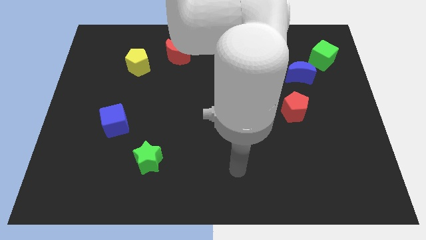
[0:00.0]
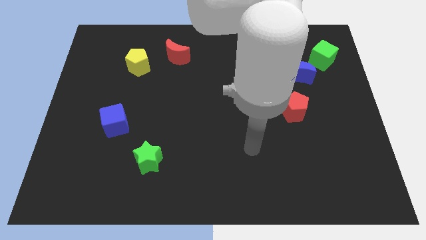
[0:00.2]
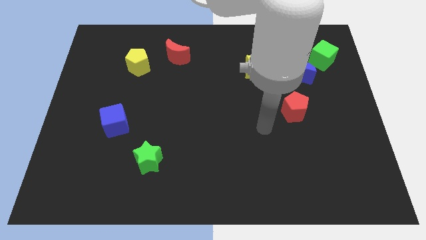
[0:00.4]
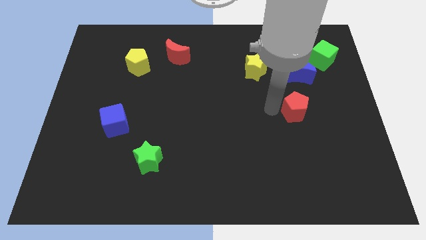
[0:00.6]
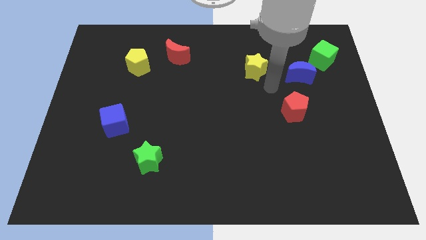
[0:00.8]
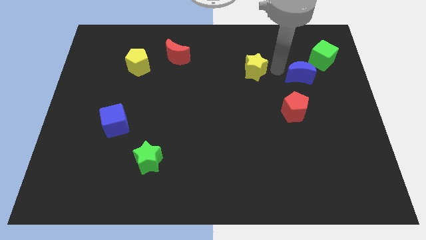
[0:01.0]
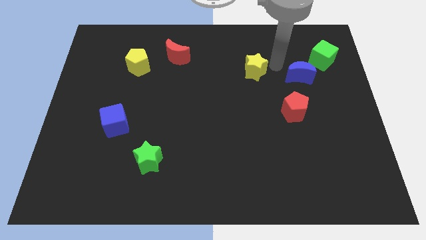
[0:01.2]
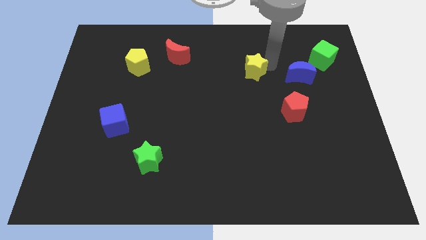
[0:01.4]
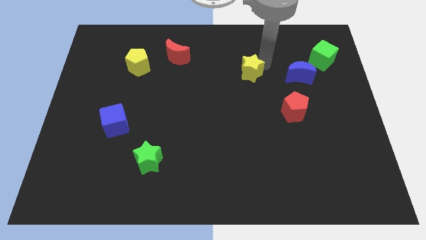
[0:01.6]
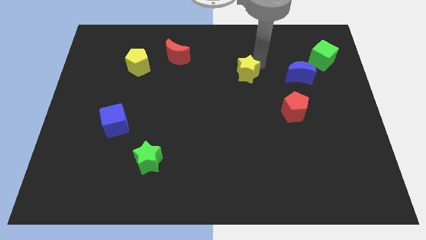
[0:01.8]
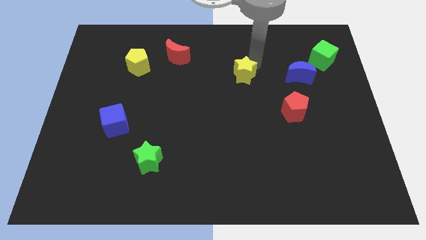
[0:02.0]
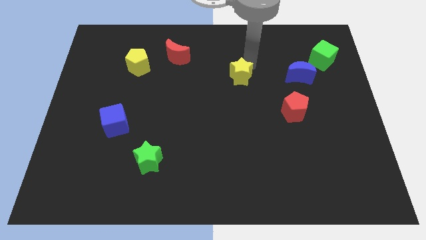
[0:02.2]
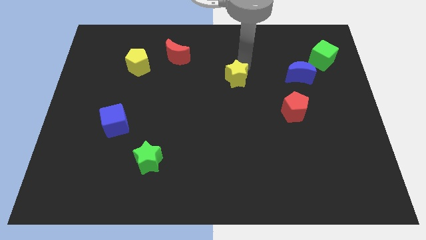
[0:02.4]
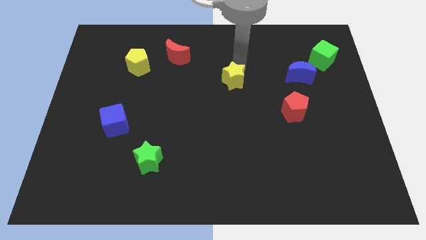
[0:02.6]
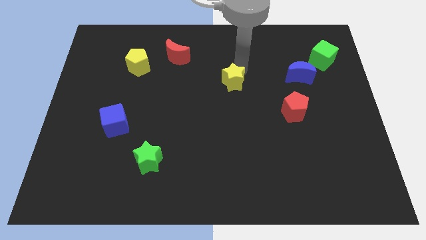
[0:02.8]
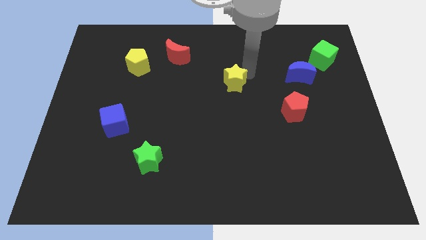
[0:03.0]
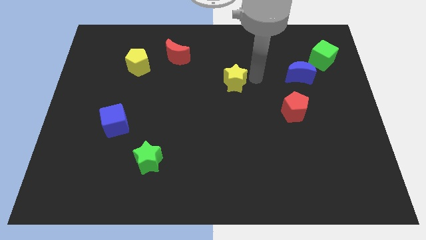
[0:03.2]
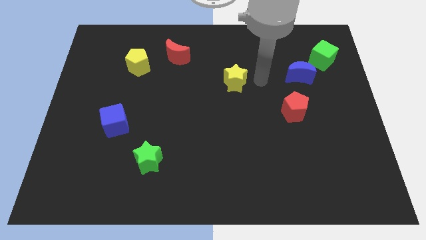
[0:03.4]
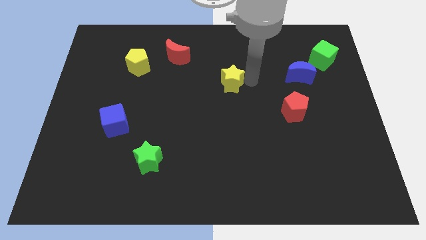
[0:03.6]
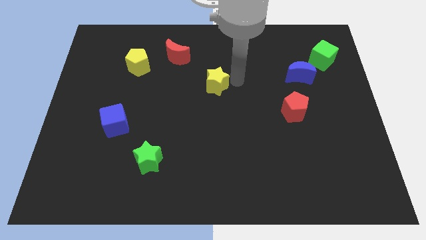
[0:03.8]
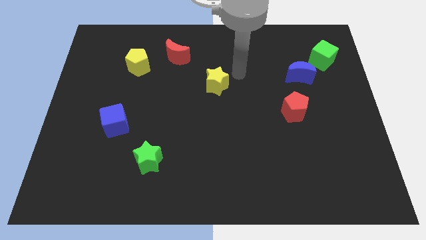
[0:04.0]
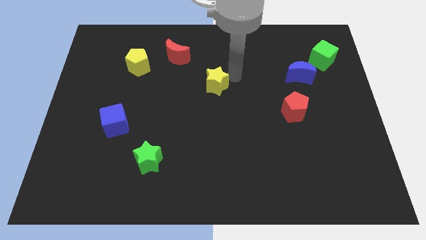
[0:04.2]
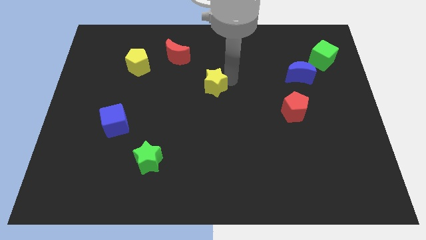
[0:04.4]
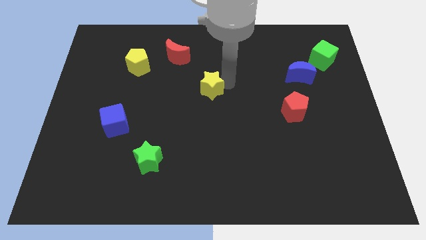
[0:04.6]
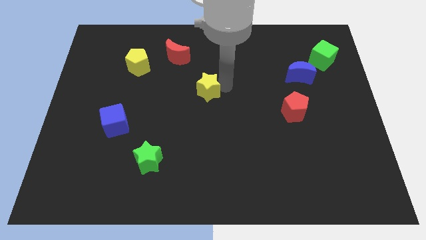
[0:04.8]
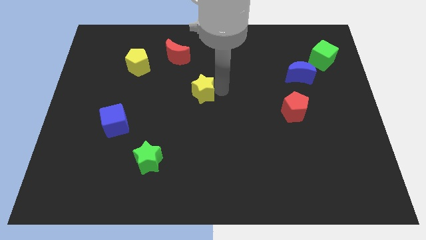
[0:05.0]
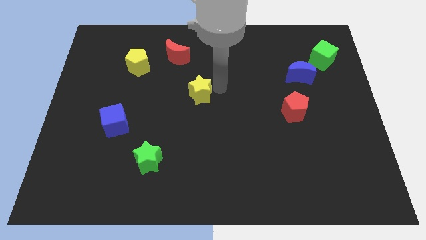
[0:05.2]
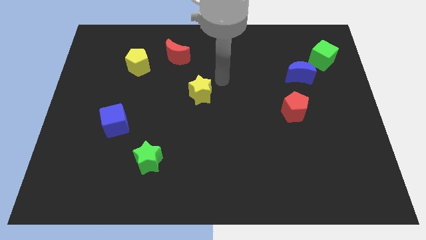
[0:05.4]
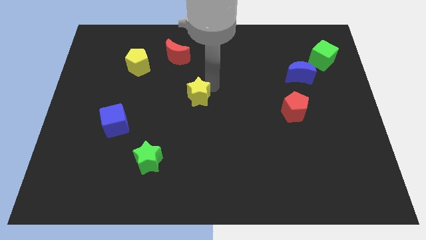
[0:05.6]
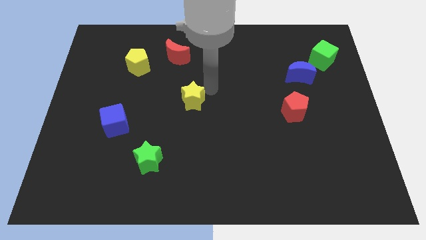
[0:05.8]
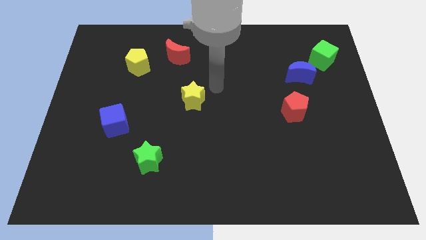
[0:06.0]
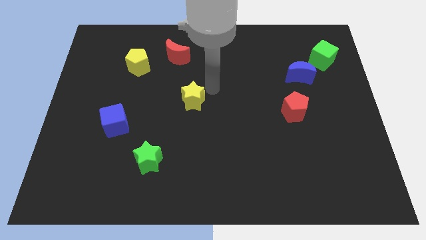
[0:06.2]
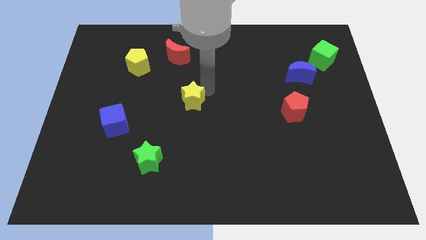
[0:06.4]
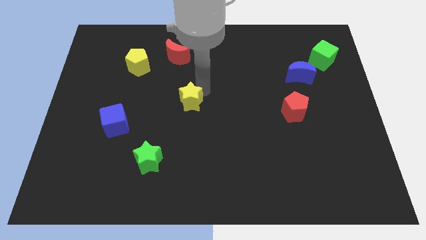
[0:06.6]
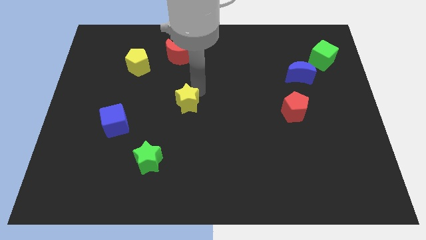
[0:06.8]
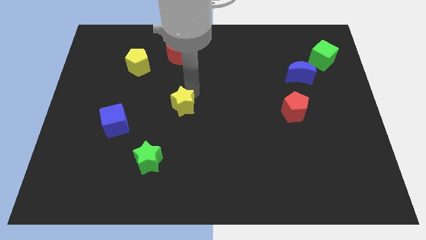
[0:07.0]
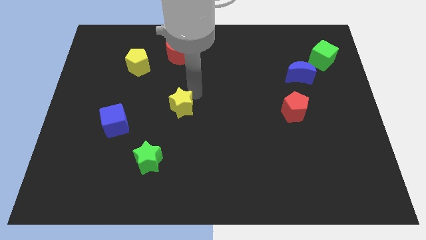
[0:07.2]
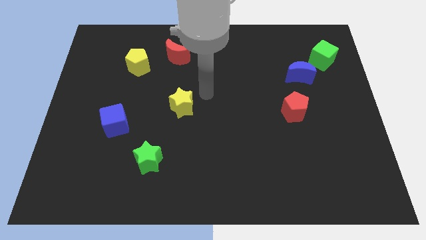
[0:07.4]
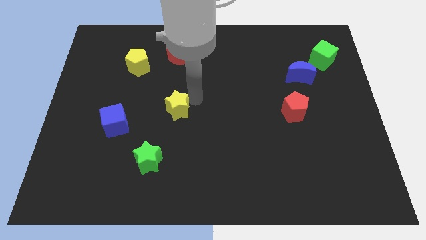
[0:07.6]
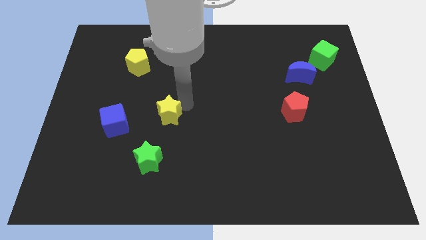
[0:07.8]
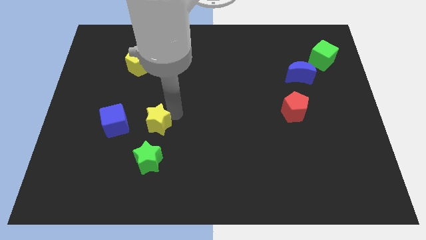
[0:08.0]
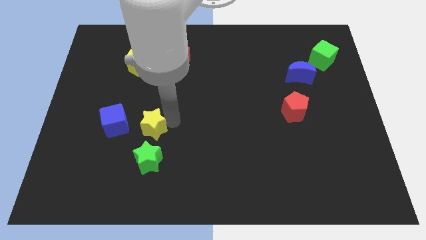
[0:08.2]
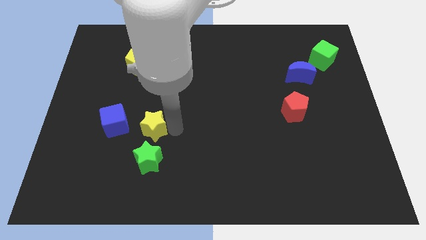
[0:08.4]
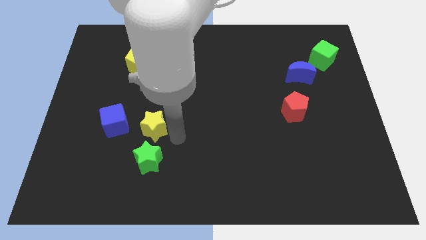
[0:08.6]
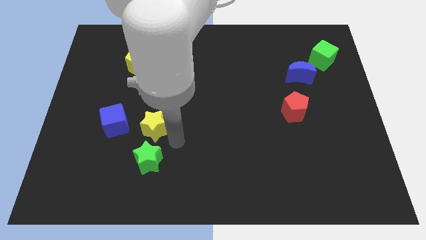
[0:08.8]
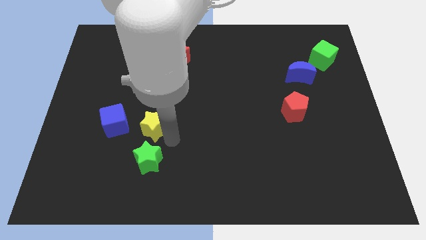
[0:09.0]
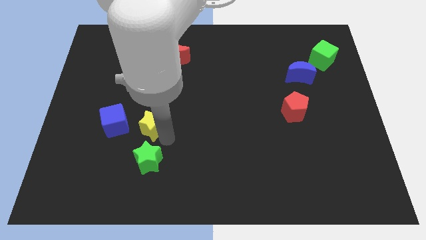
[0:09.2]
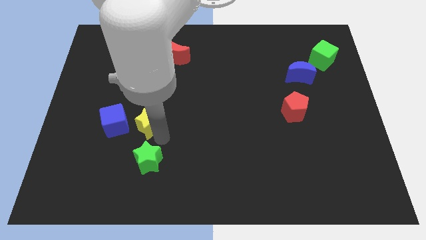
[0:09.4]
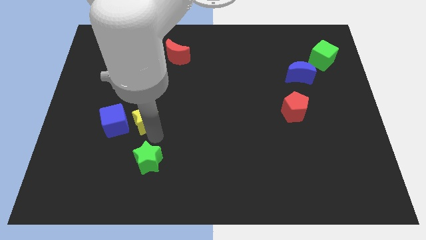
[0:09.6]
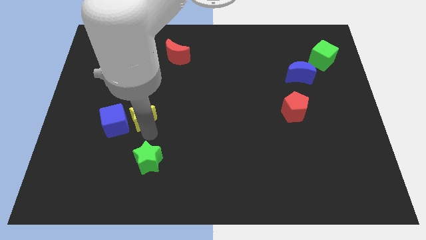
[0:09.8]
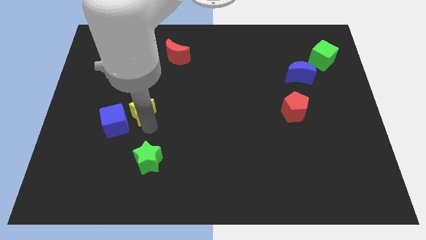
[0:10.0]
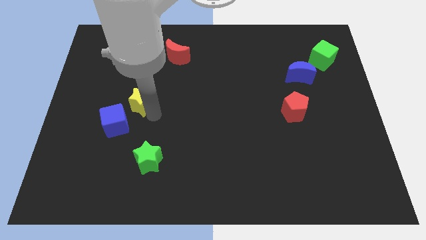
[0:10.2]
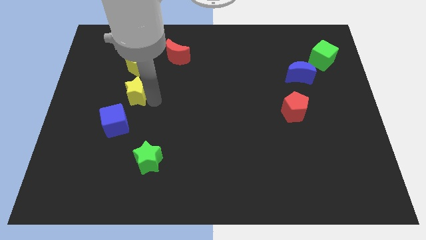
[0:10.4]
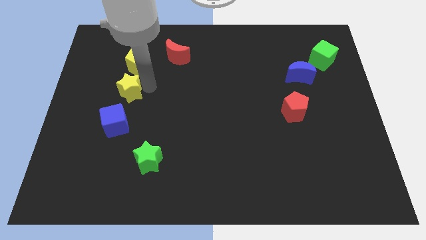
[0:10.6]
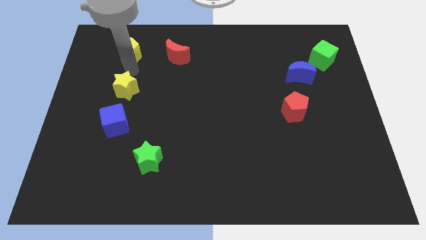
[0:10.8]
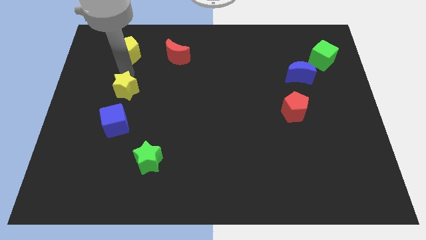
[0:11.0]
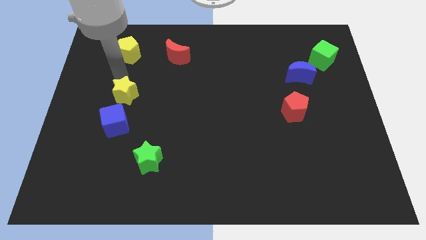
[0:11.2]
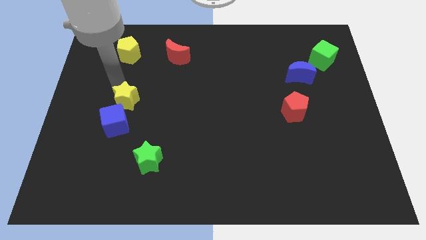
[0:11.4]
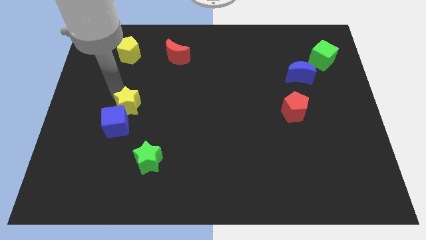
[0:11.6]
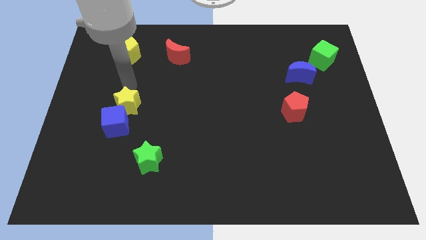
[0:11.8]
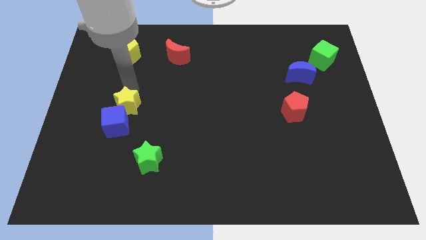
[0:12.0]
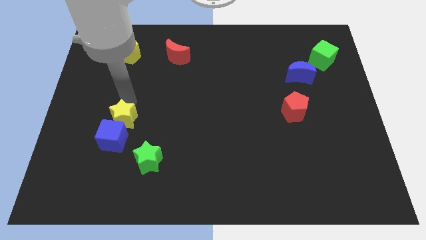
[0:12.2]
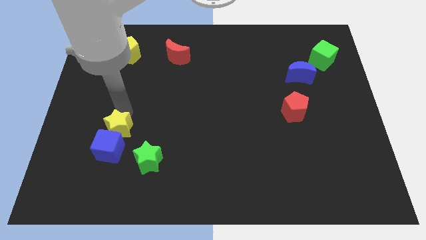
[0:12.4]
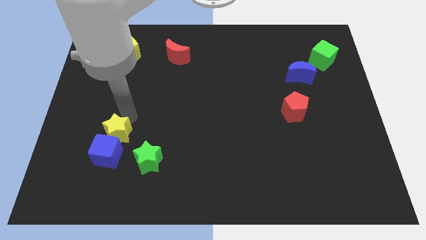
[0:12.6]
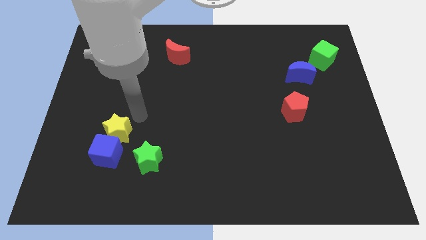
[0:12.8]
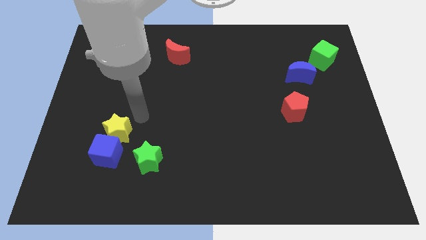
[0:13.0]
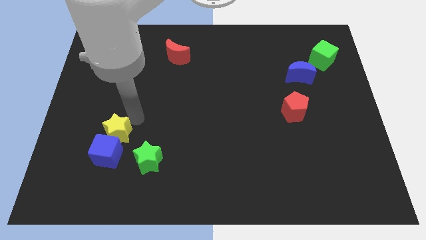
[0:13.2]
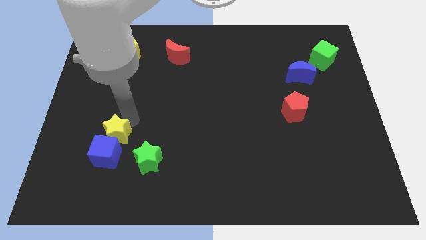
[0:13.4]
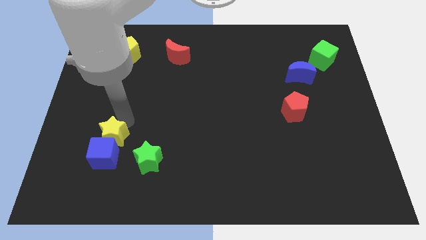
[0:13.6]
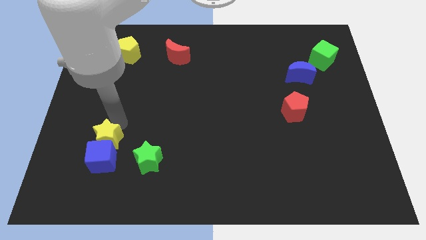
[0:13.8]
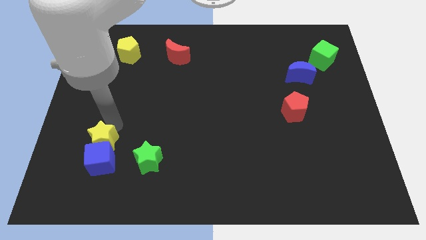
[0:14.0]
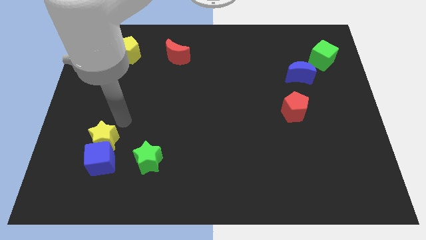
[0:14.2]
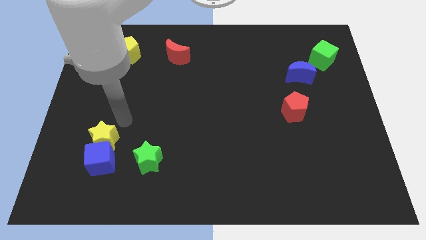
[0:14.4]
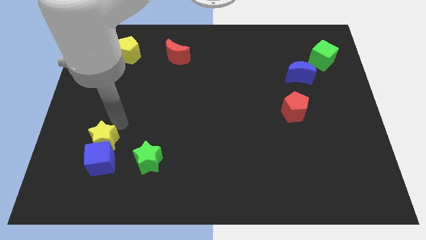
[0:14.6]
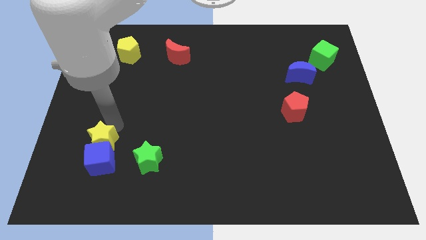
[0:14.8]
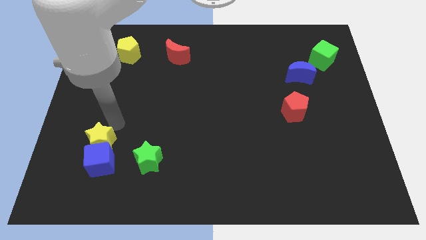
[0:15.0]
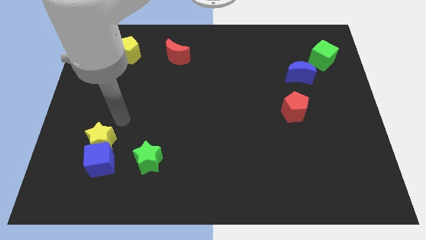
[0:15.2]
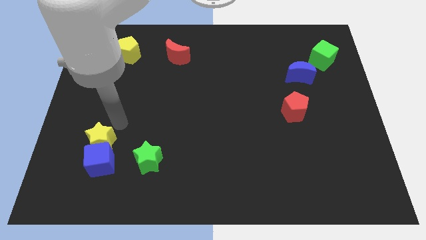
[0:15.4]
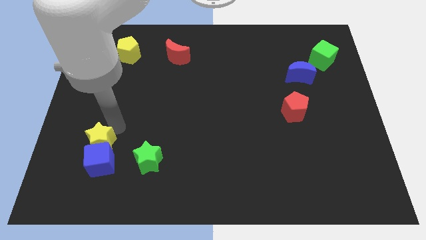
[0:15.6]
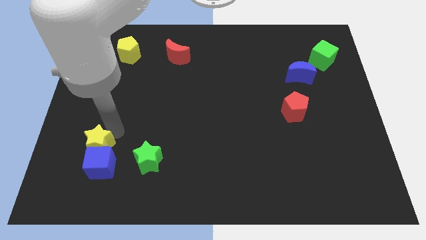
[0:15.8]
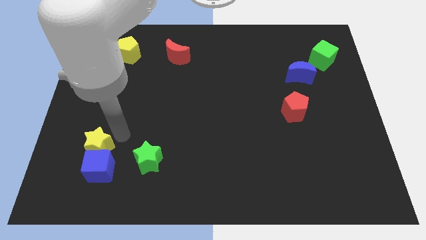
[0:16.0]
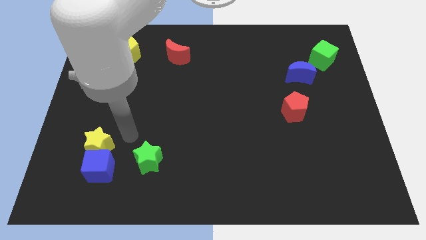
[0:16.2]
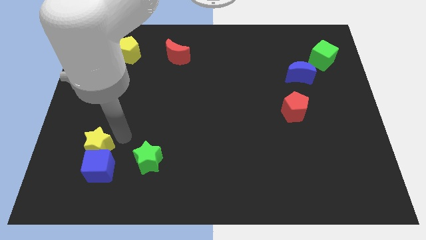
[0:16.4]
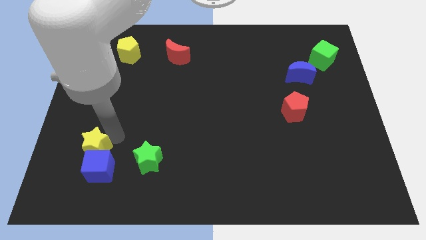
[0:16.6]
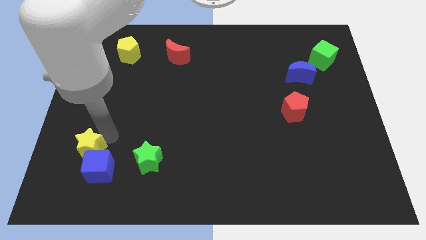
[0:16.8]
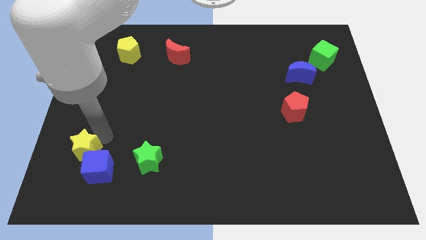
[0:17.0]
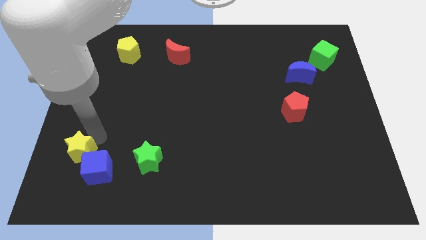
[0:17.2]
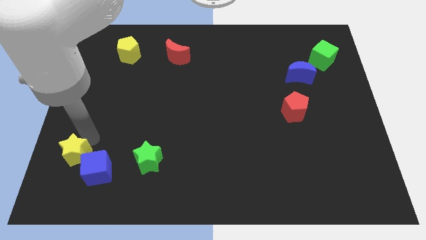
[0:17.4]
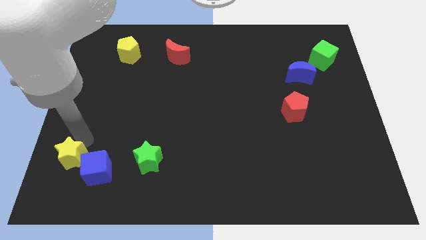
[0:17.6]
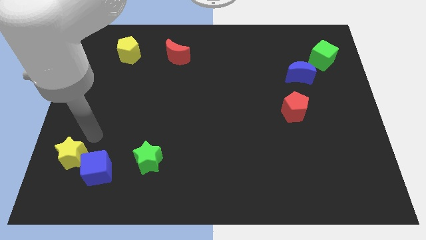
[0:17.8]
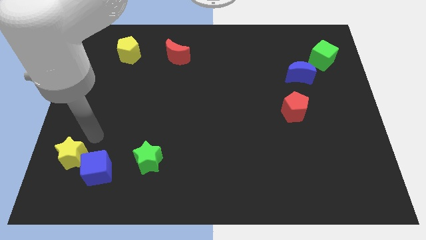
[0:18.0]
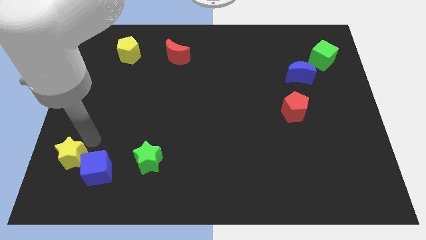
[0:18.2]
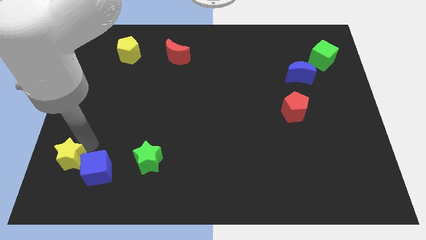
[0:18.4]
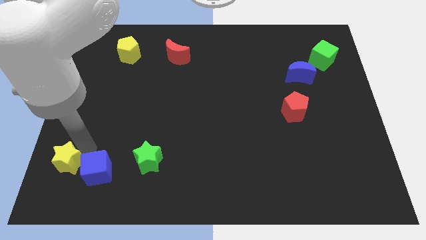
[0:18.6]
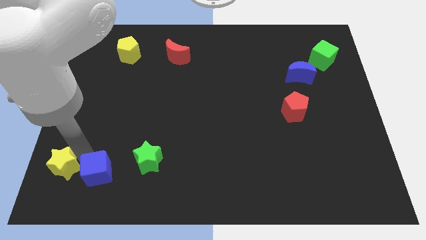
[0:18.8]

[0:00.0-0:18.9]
slide the yellow star to the bottom left of the board
